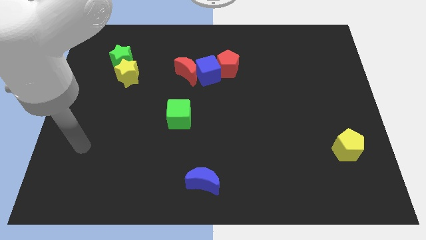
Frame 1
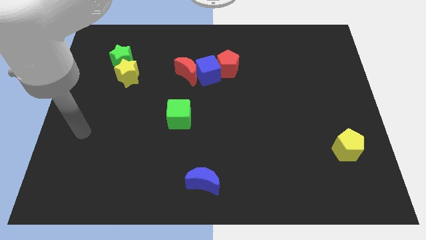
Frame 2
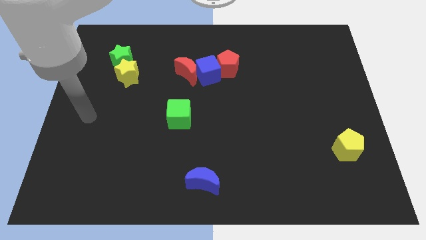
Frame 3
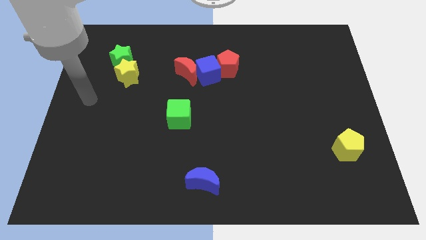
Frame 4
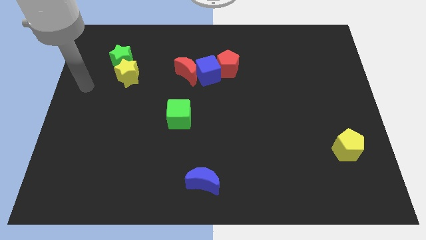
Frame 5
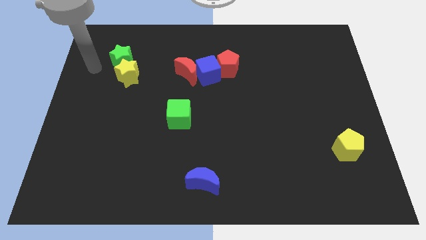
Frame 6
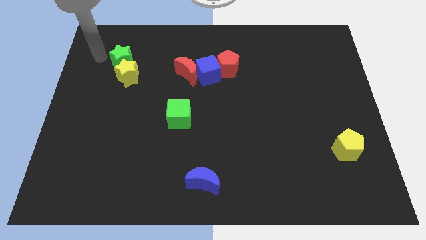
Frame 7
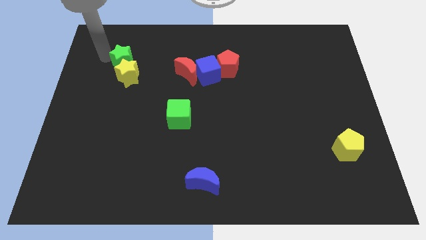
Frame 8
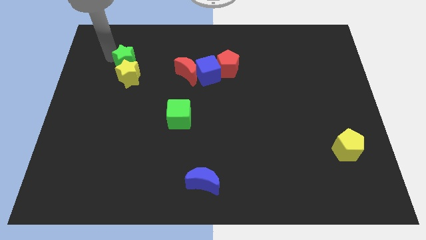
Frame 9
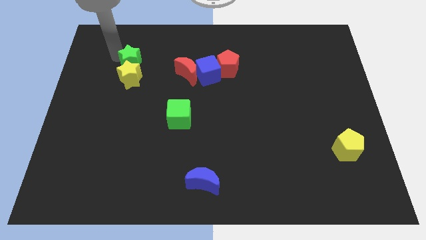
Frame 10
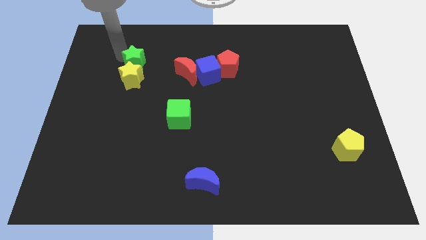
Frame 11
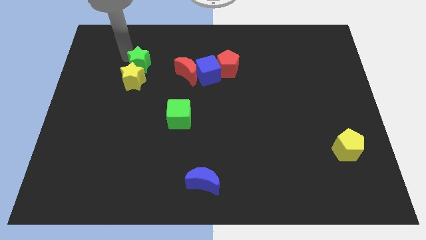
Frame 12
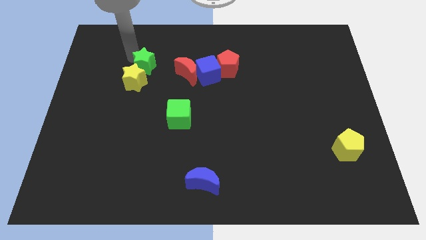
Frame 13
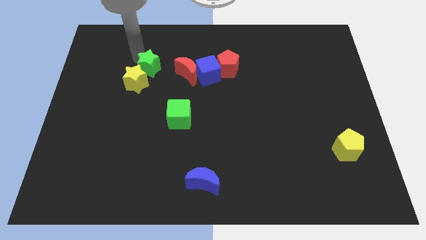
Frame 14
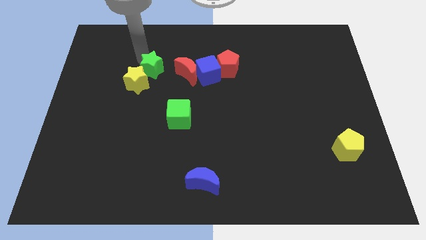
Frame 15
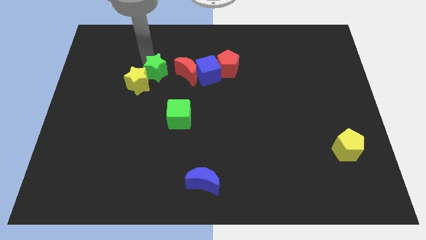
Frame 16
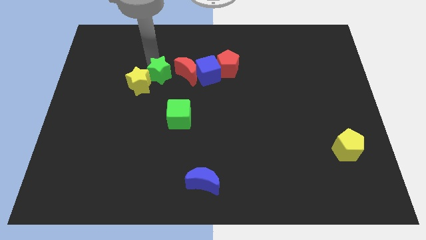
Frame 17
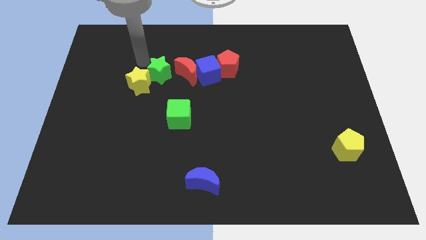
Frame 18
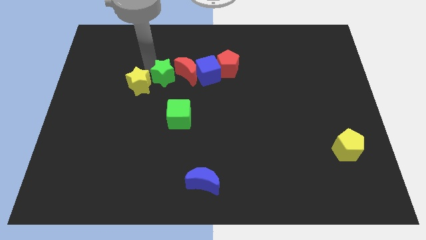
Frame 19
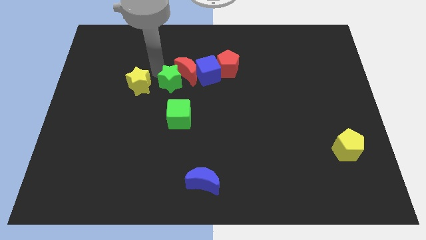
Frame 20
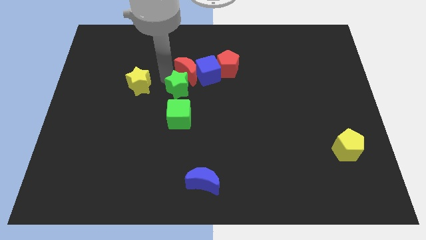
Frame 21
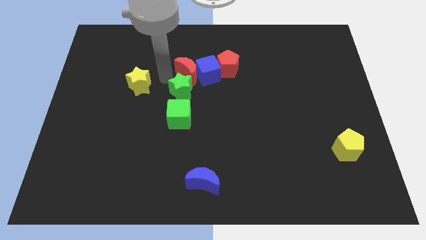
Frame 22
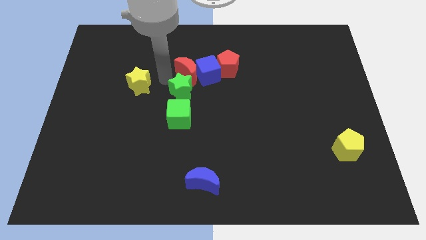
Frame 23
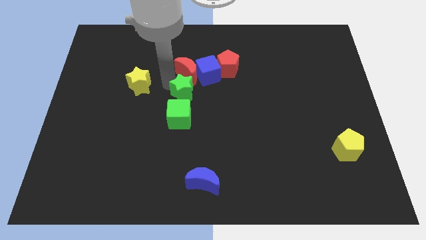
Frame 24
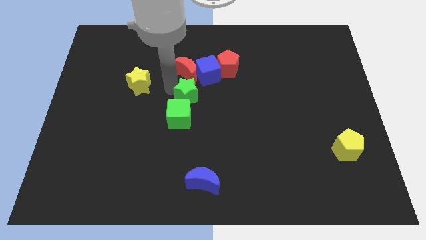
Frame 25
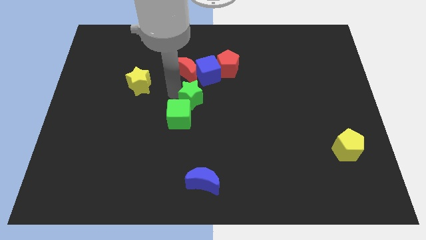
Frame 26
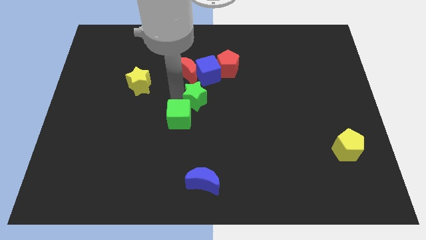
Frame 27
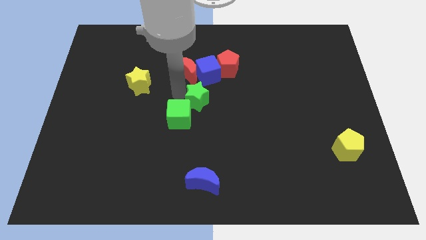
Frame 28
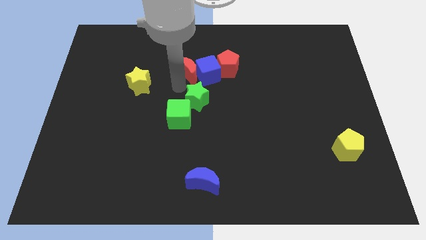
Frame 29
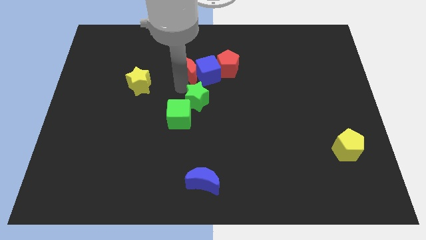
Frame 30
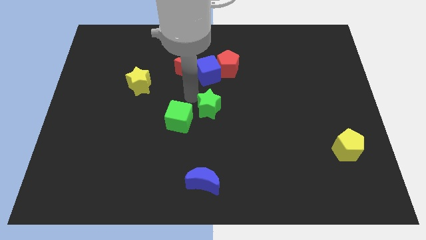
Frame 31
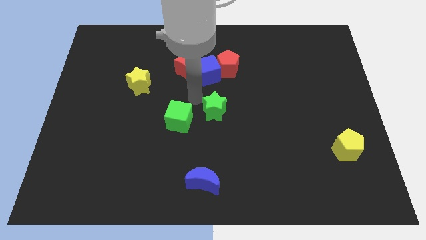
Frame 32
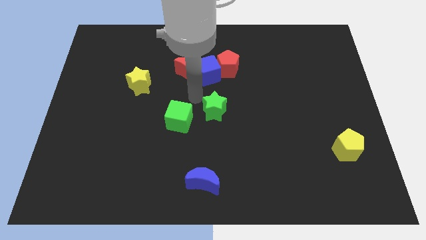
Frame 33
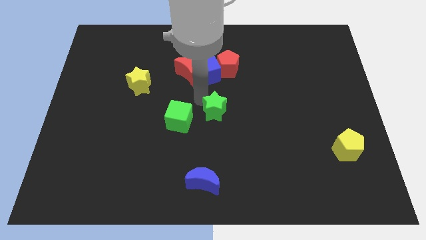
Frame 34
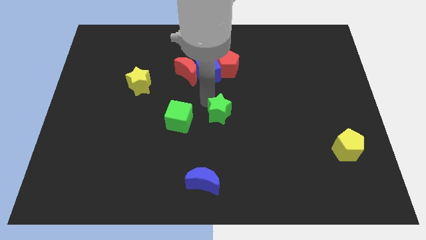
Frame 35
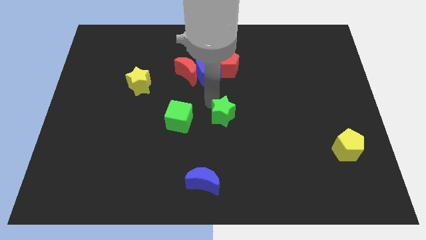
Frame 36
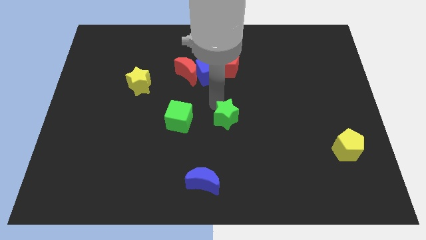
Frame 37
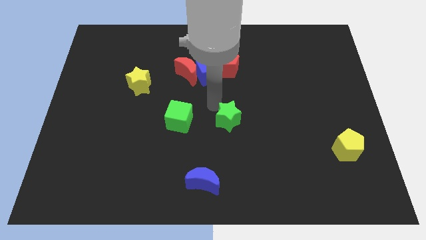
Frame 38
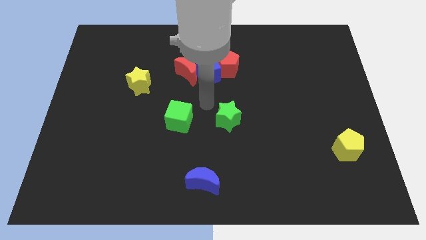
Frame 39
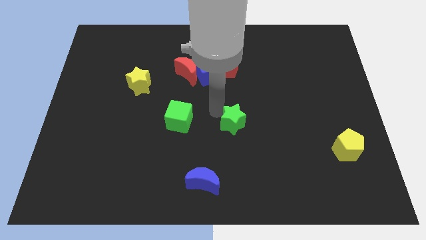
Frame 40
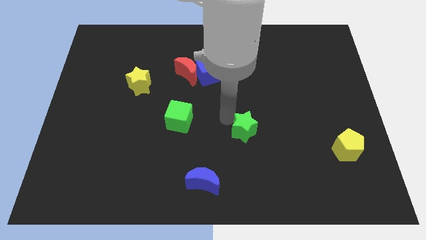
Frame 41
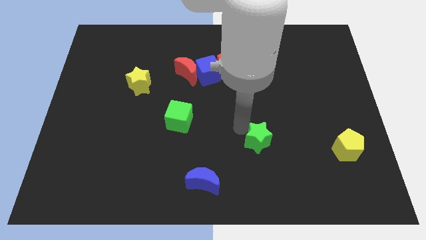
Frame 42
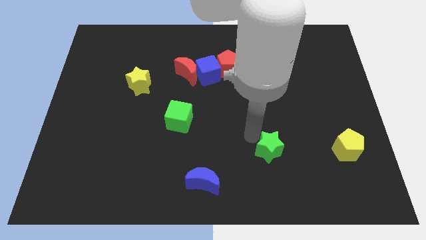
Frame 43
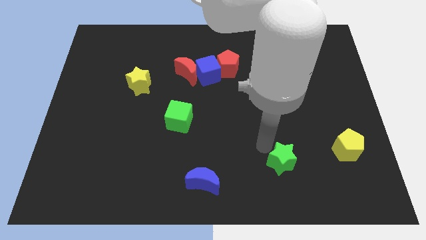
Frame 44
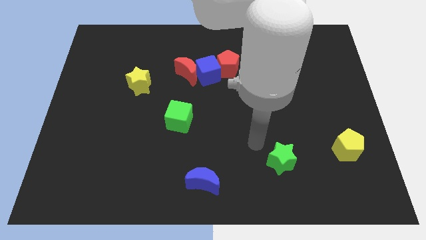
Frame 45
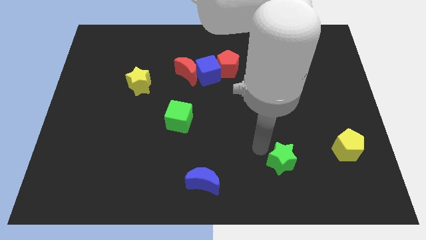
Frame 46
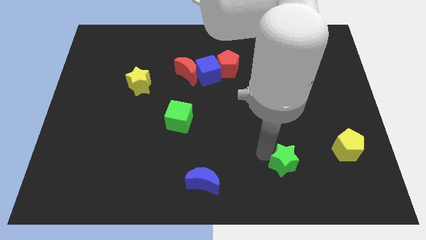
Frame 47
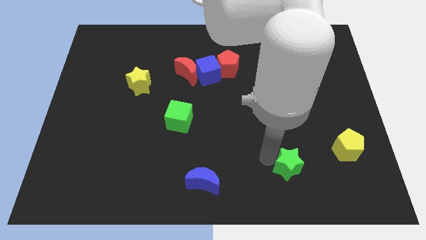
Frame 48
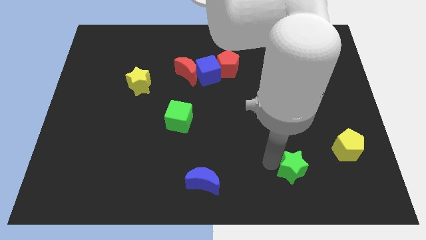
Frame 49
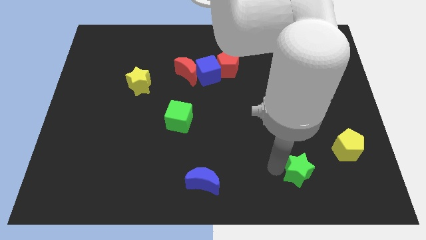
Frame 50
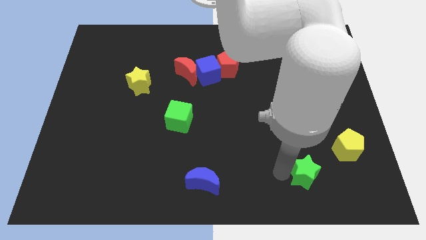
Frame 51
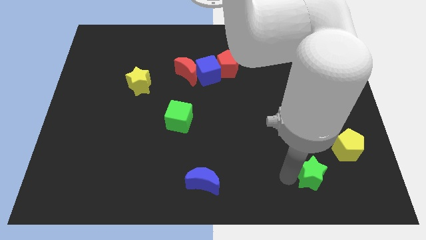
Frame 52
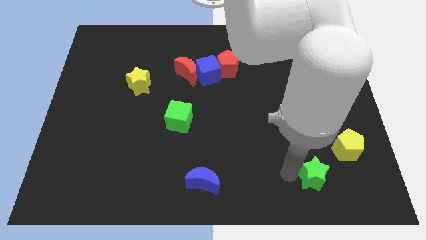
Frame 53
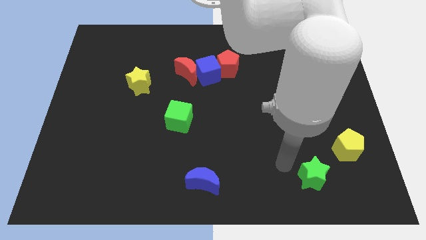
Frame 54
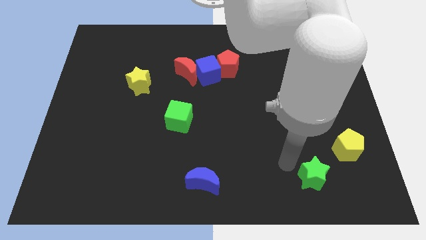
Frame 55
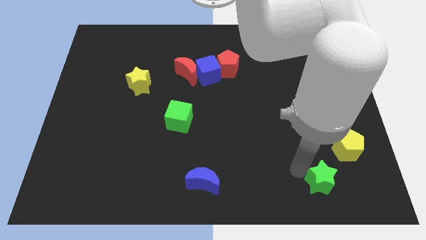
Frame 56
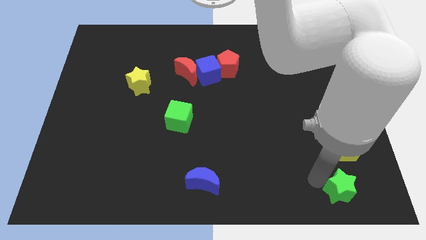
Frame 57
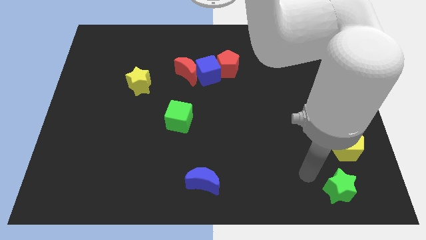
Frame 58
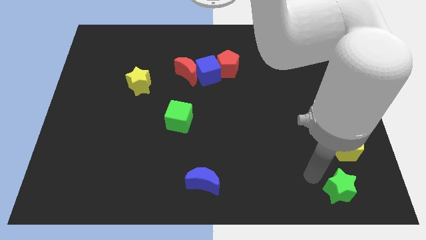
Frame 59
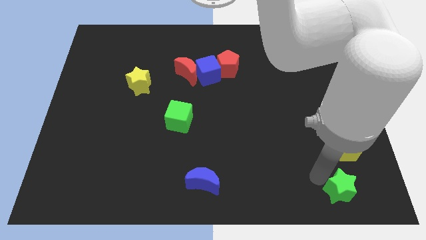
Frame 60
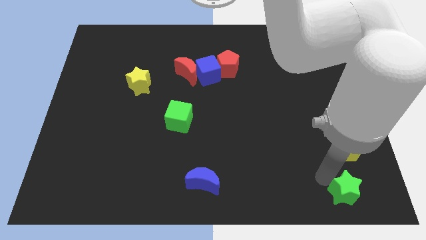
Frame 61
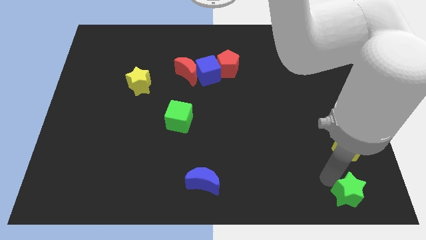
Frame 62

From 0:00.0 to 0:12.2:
push the green star to the bottom right of the board
